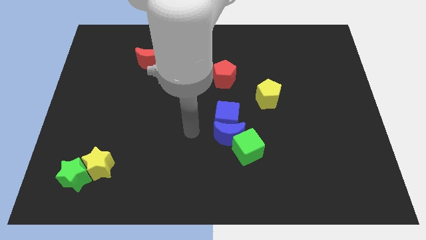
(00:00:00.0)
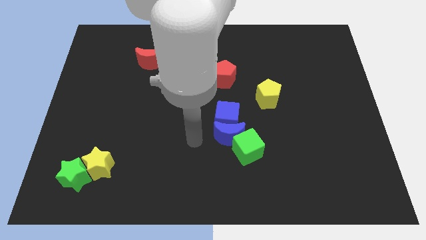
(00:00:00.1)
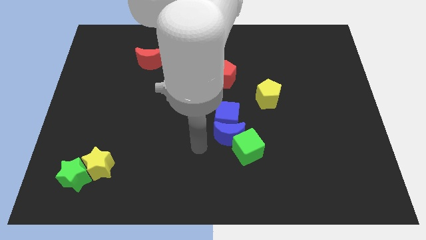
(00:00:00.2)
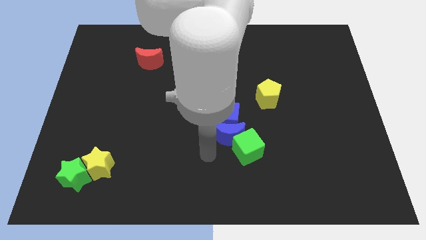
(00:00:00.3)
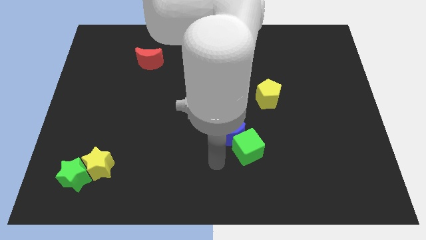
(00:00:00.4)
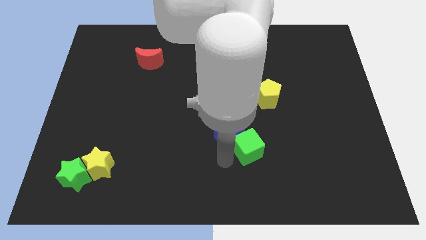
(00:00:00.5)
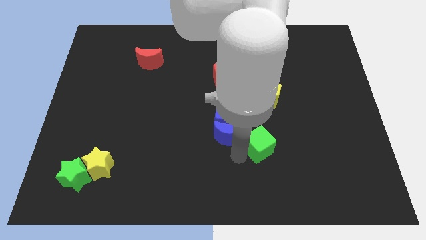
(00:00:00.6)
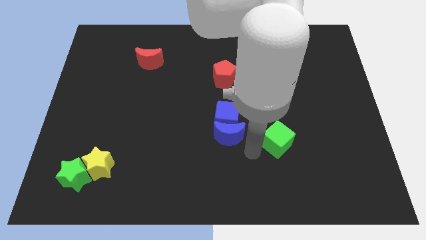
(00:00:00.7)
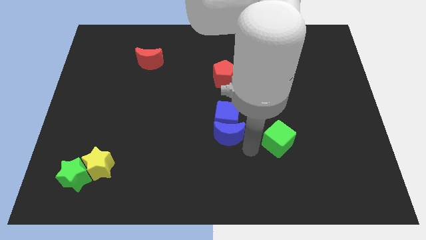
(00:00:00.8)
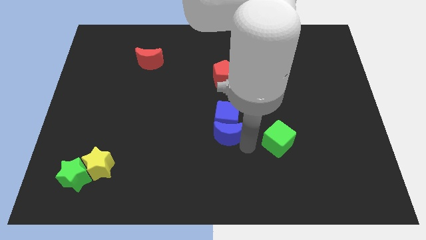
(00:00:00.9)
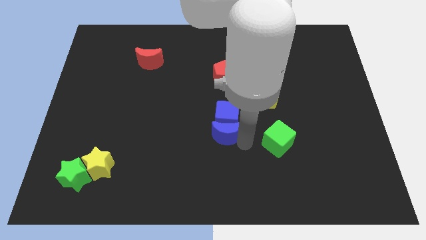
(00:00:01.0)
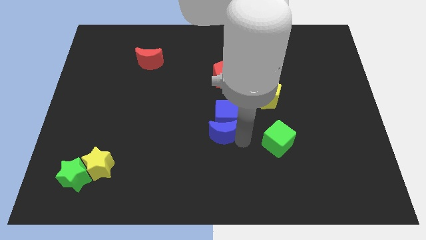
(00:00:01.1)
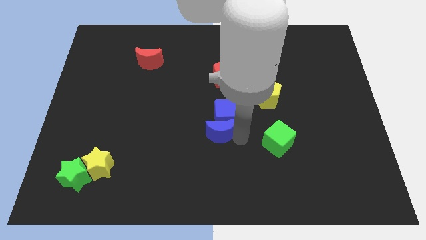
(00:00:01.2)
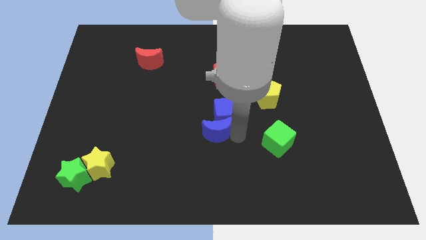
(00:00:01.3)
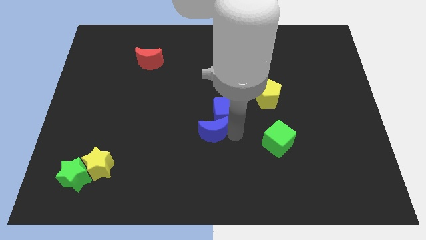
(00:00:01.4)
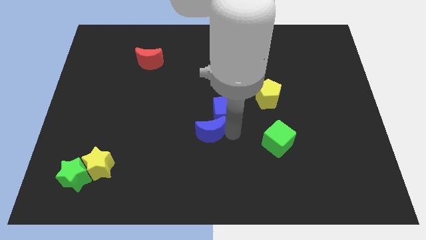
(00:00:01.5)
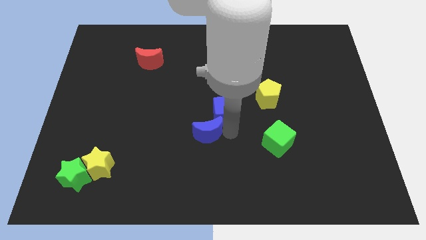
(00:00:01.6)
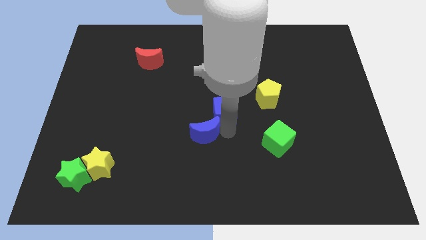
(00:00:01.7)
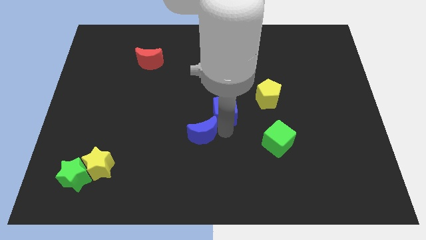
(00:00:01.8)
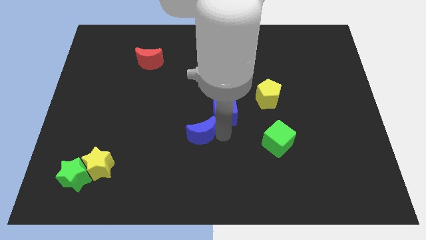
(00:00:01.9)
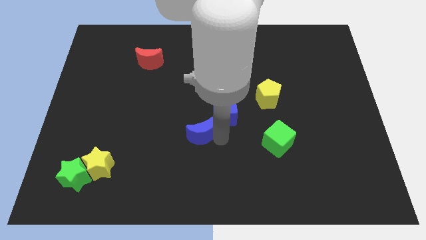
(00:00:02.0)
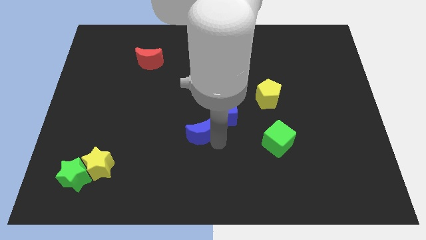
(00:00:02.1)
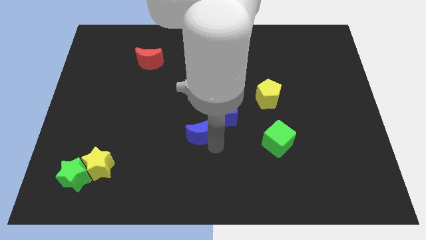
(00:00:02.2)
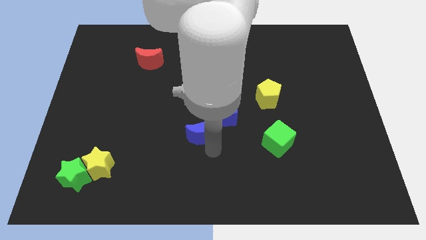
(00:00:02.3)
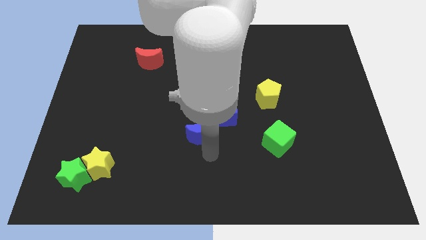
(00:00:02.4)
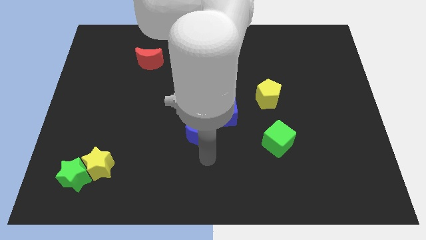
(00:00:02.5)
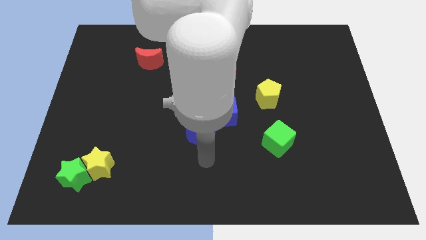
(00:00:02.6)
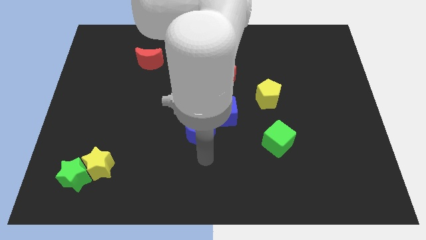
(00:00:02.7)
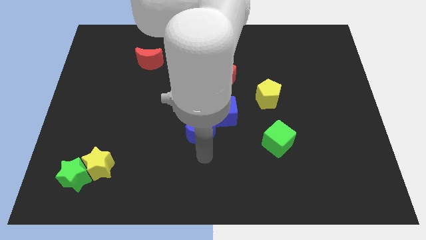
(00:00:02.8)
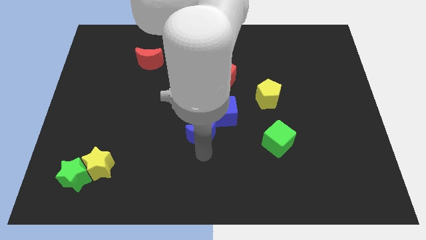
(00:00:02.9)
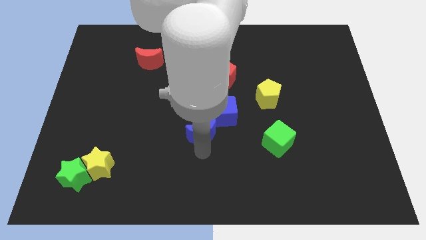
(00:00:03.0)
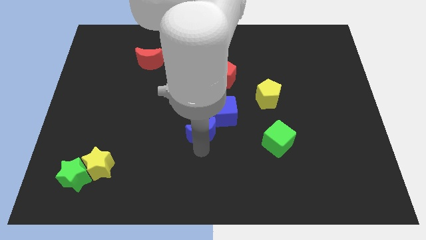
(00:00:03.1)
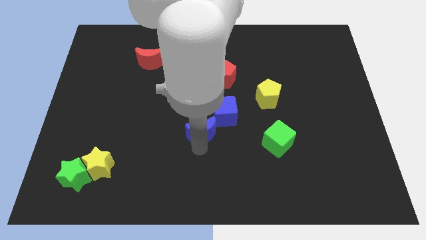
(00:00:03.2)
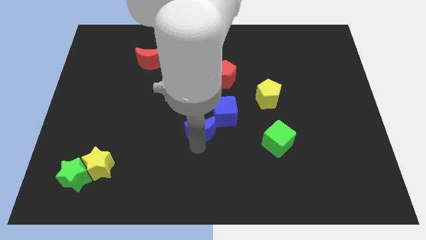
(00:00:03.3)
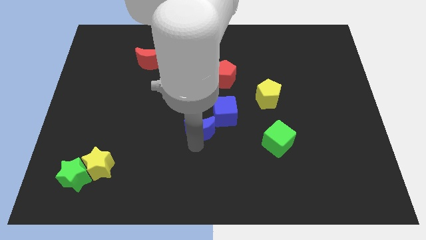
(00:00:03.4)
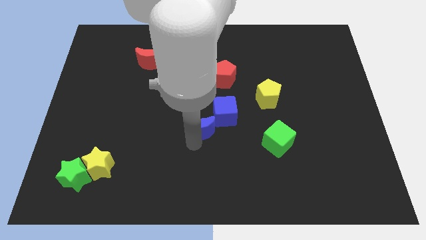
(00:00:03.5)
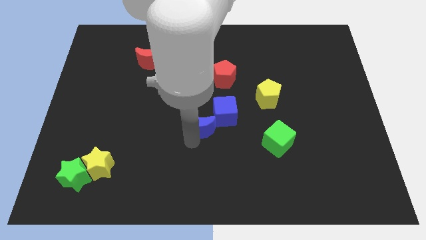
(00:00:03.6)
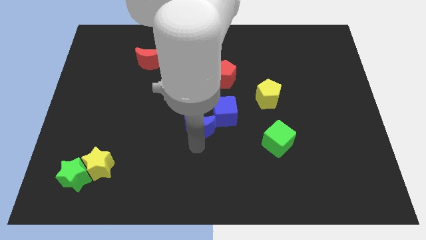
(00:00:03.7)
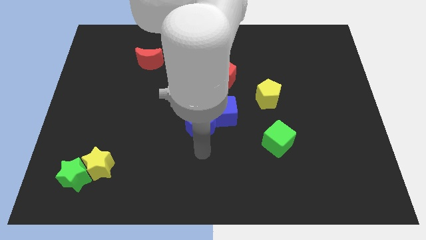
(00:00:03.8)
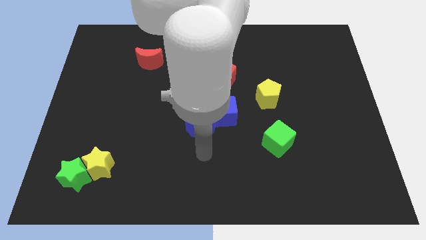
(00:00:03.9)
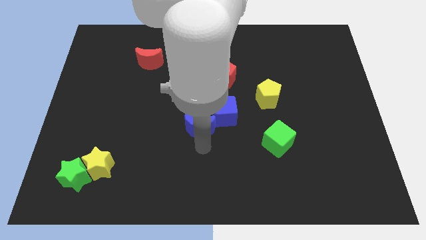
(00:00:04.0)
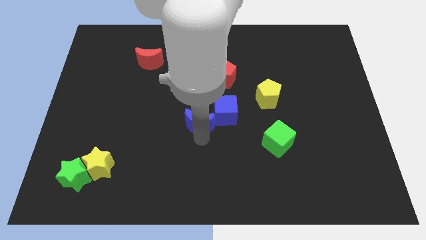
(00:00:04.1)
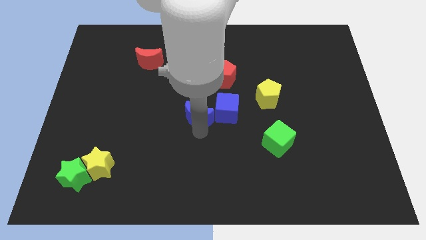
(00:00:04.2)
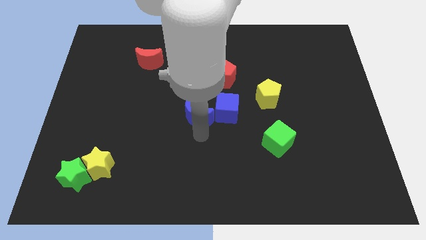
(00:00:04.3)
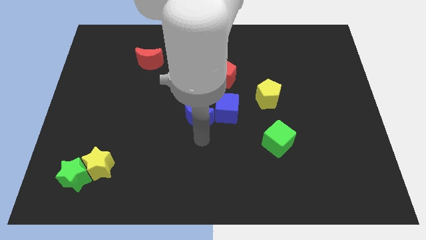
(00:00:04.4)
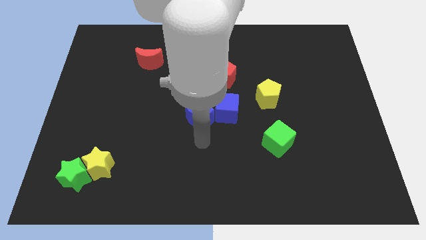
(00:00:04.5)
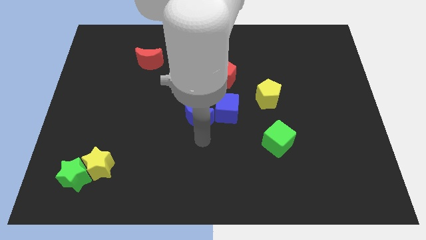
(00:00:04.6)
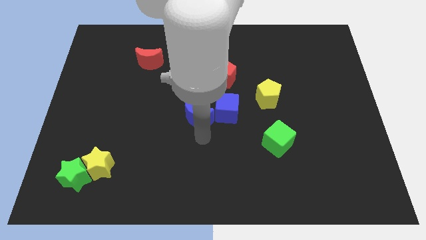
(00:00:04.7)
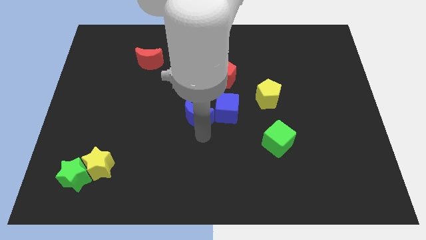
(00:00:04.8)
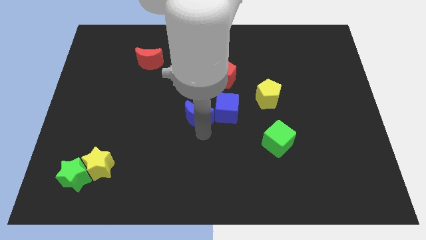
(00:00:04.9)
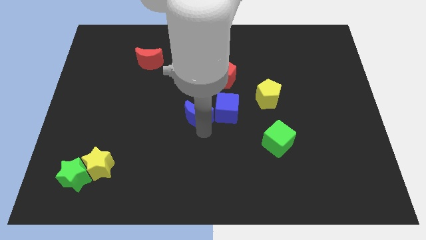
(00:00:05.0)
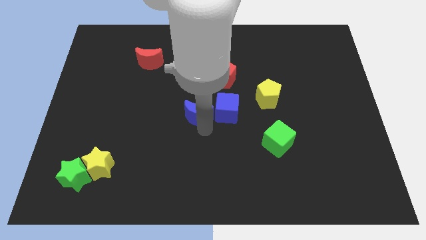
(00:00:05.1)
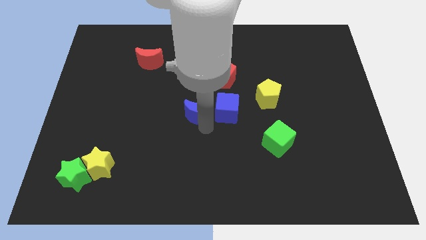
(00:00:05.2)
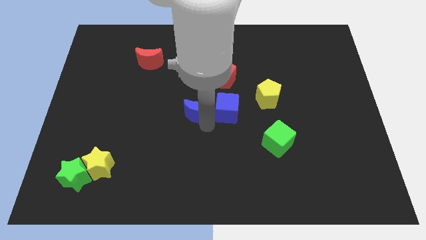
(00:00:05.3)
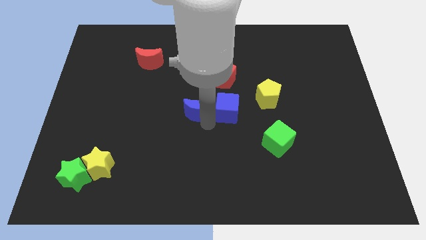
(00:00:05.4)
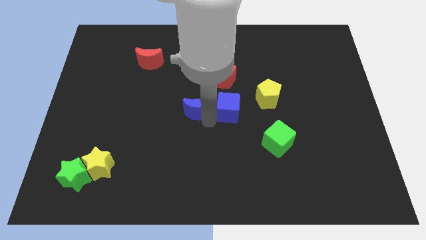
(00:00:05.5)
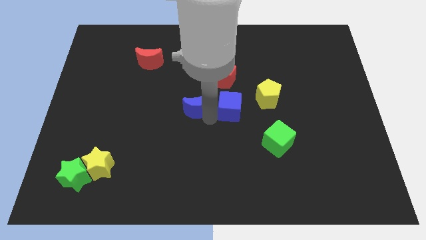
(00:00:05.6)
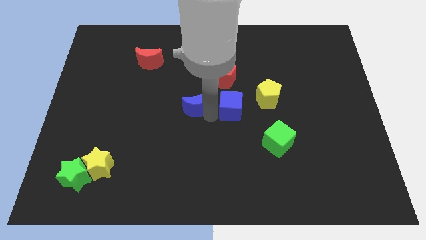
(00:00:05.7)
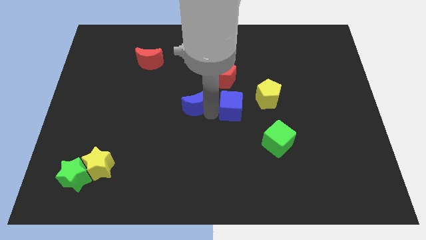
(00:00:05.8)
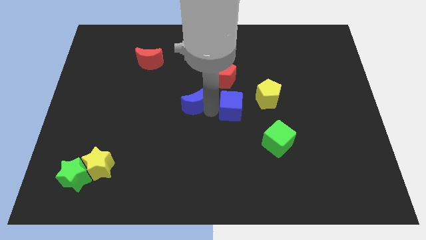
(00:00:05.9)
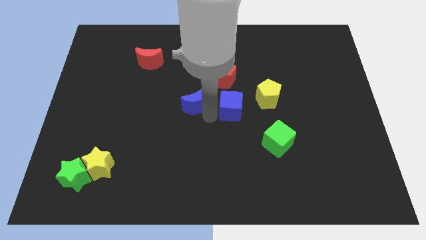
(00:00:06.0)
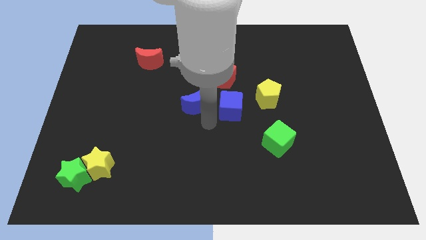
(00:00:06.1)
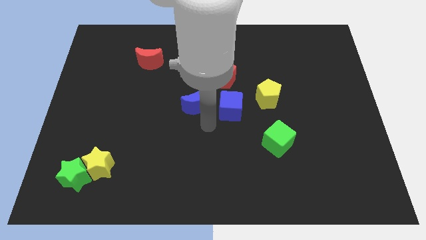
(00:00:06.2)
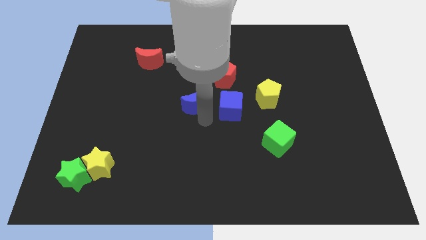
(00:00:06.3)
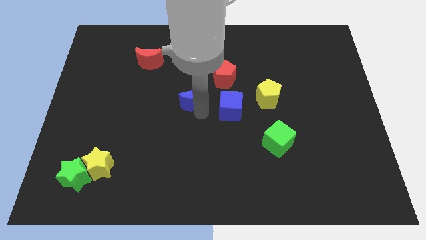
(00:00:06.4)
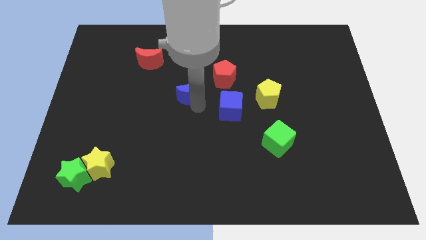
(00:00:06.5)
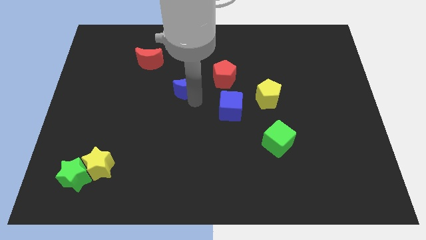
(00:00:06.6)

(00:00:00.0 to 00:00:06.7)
put the blue moon to the left of the red pentagon
